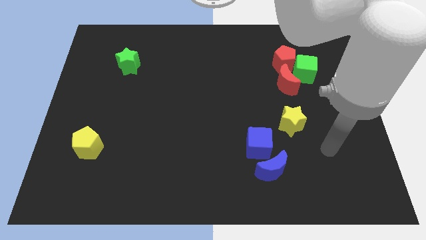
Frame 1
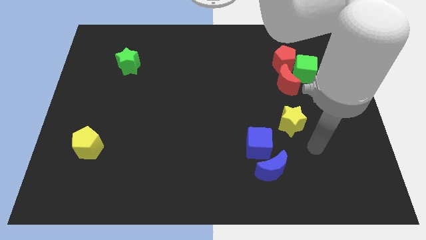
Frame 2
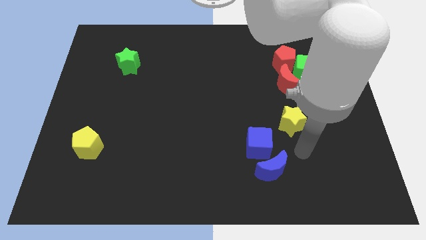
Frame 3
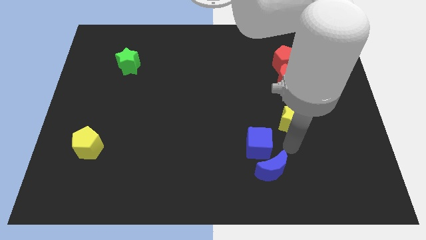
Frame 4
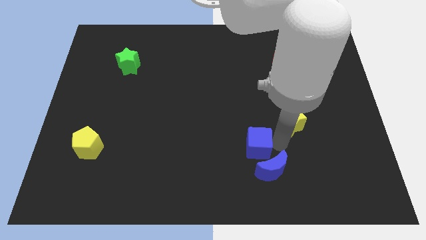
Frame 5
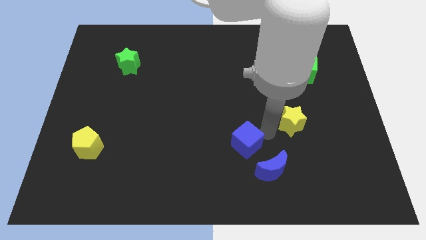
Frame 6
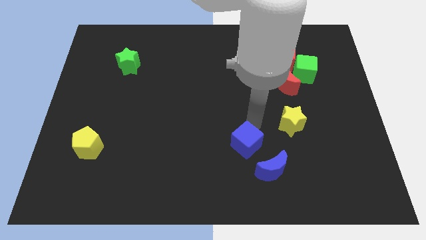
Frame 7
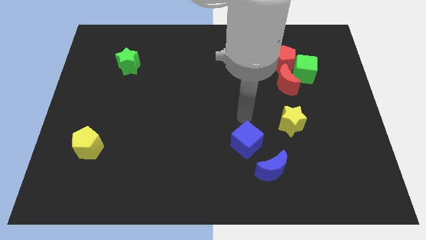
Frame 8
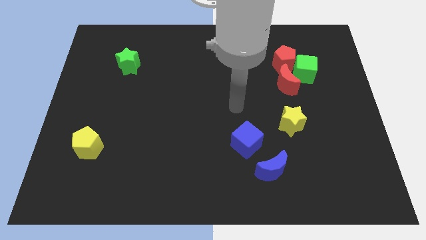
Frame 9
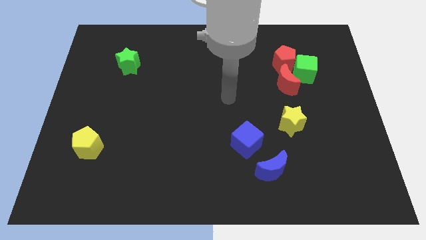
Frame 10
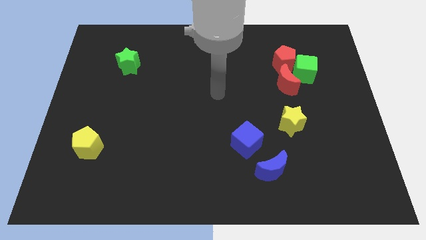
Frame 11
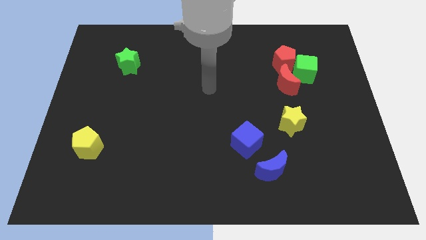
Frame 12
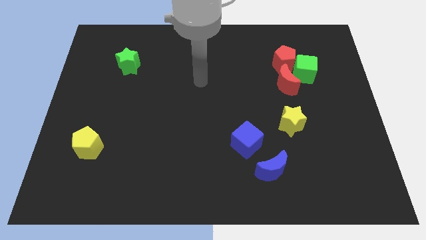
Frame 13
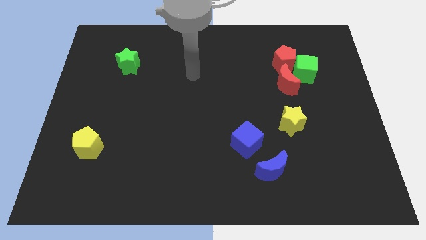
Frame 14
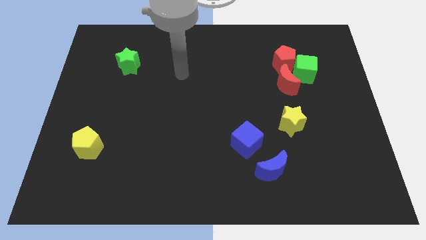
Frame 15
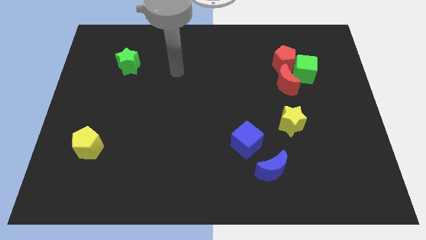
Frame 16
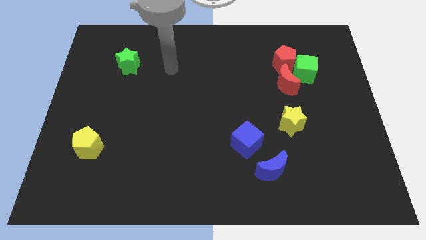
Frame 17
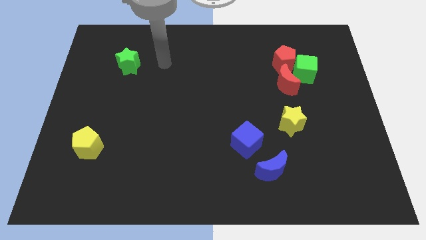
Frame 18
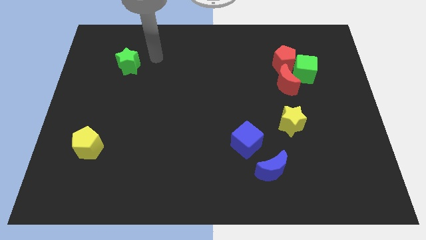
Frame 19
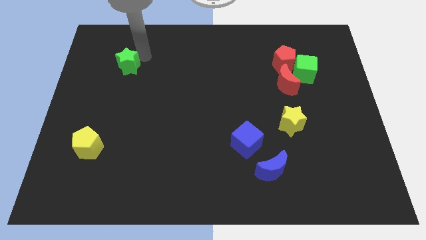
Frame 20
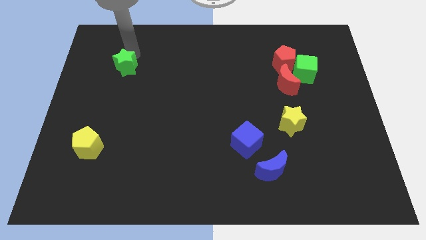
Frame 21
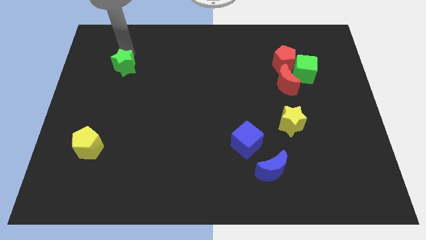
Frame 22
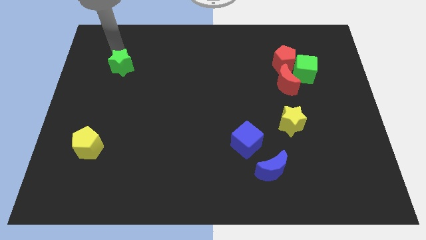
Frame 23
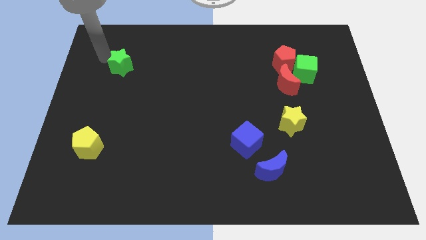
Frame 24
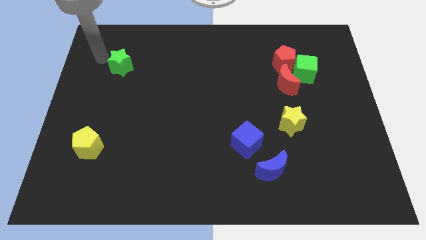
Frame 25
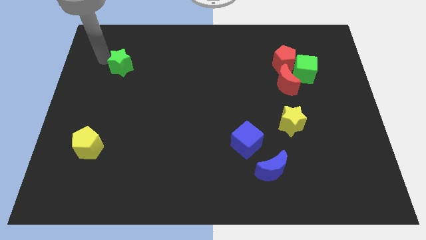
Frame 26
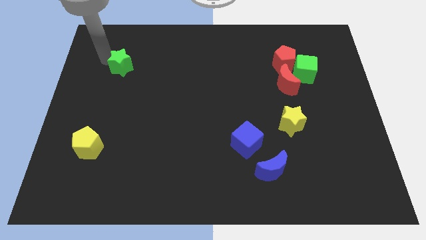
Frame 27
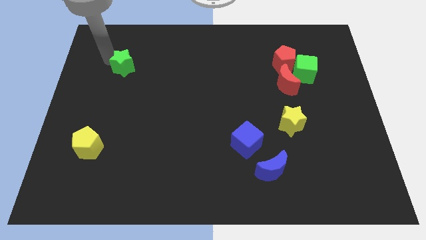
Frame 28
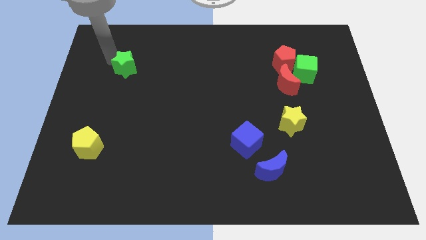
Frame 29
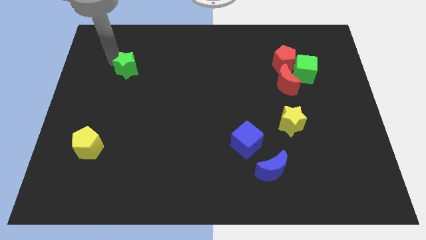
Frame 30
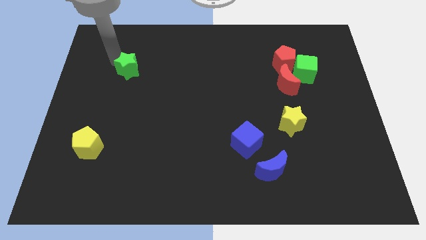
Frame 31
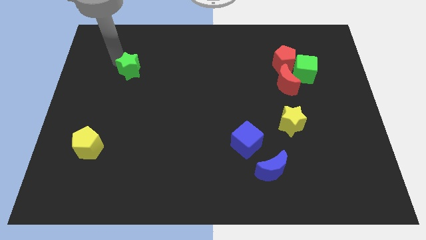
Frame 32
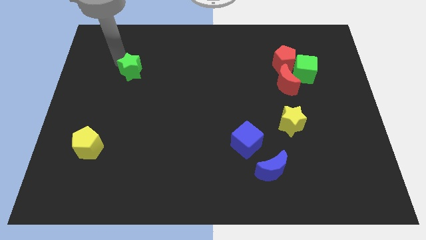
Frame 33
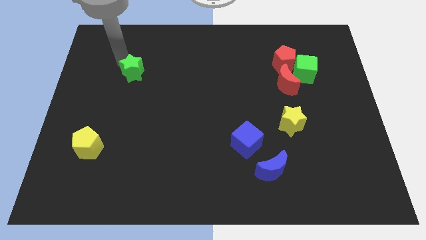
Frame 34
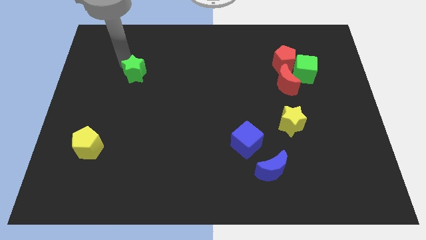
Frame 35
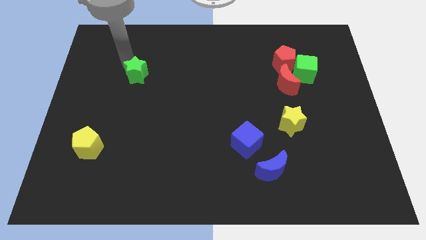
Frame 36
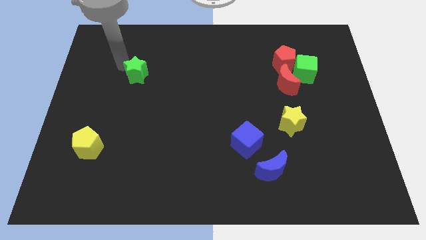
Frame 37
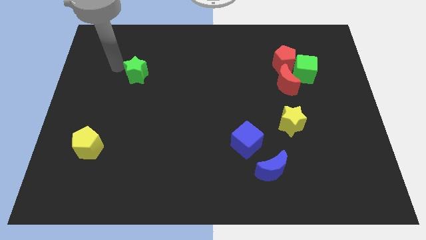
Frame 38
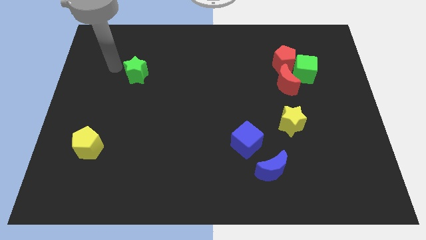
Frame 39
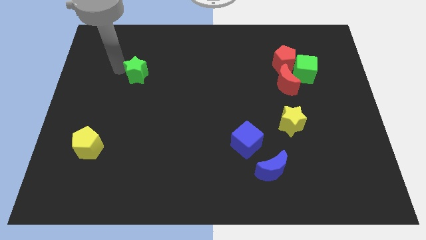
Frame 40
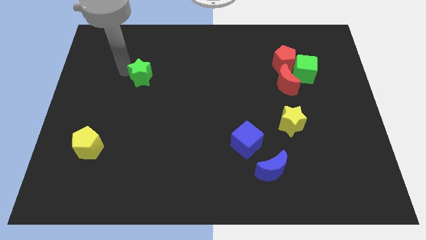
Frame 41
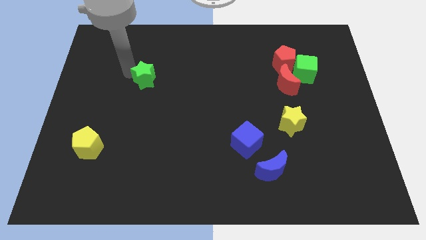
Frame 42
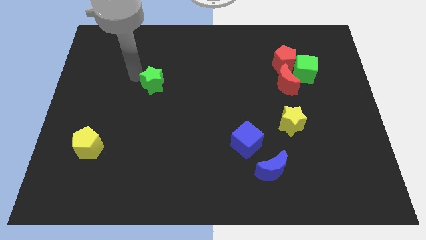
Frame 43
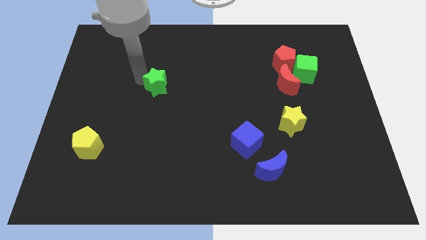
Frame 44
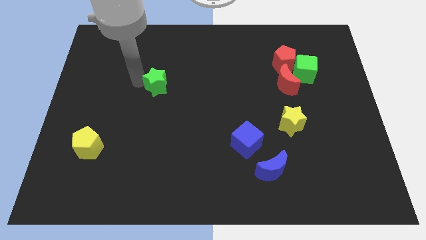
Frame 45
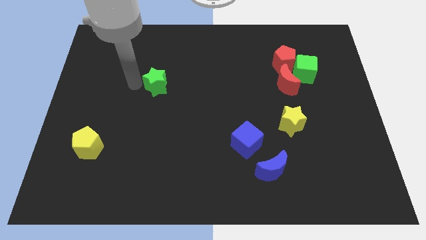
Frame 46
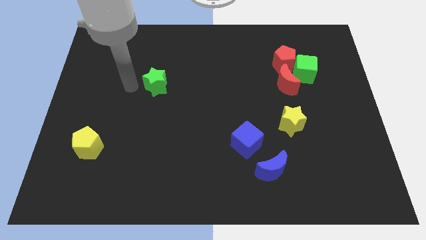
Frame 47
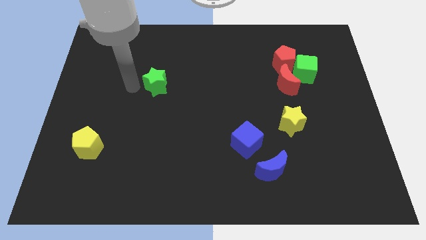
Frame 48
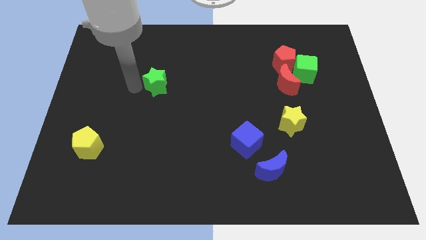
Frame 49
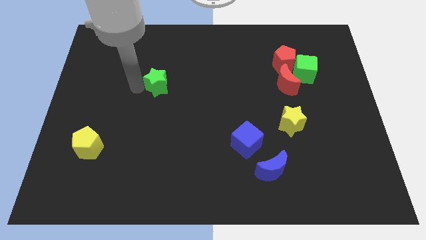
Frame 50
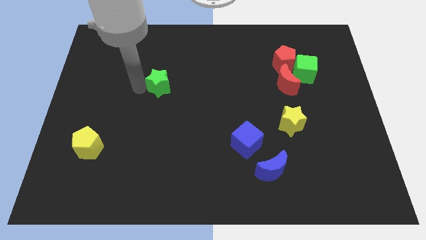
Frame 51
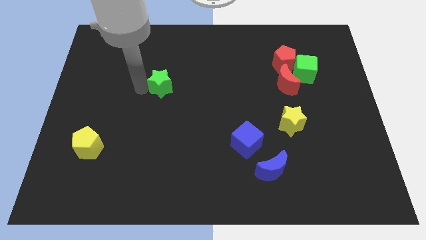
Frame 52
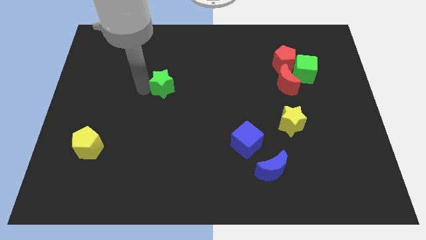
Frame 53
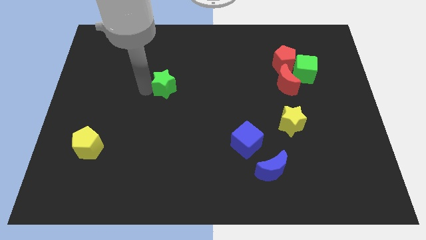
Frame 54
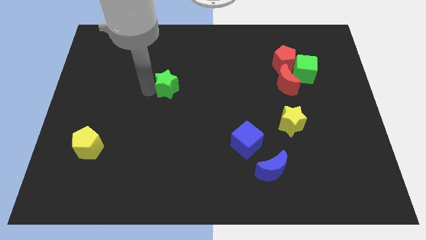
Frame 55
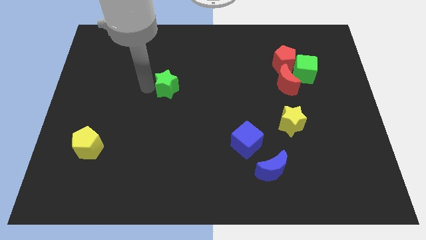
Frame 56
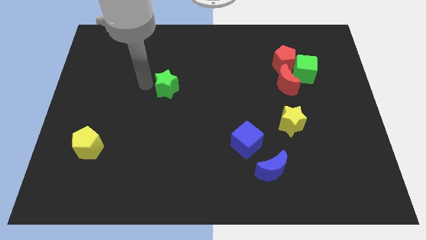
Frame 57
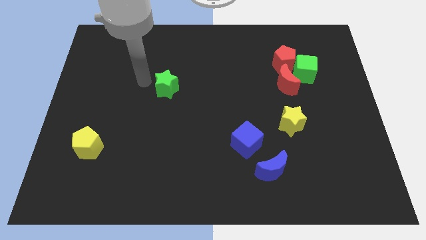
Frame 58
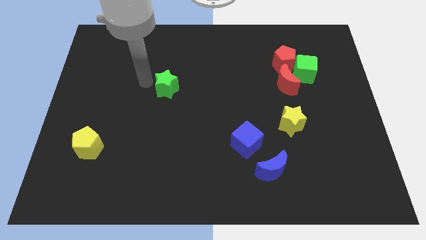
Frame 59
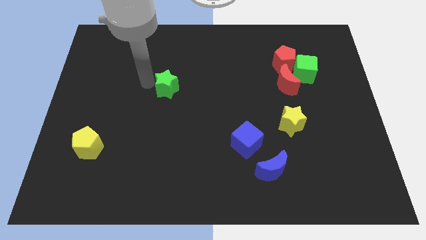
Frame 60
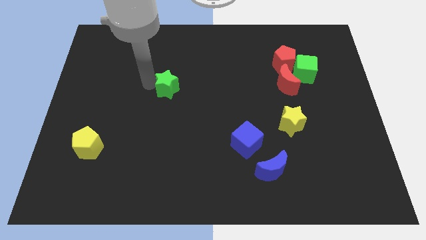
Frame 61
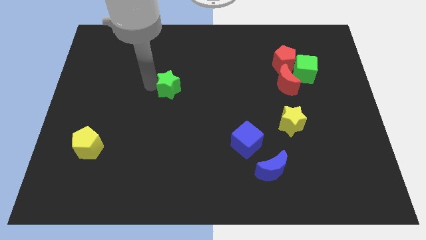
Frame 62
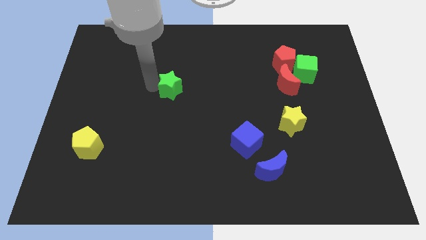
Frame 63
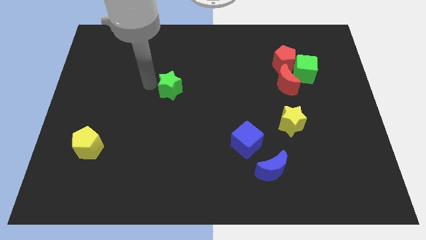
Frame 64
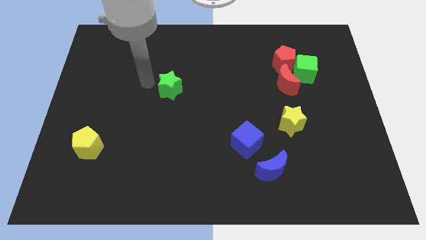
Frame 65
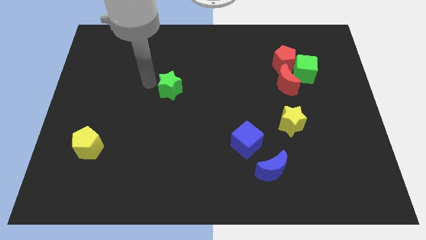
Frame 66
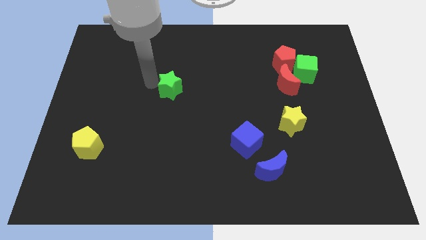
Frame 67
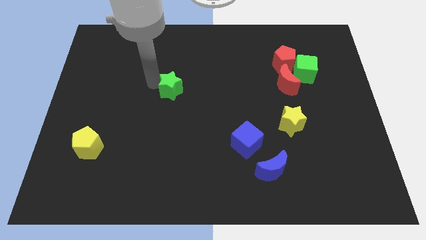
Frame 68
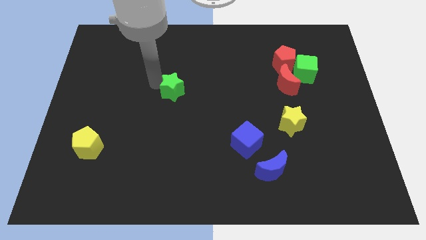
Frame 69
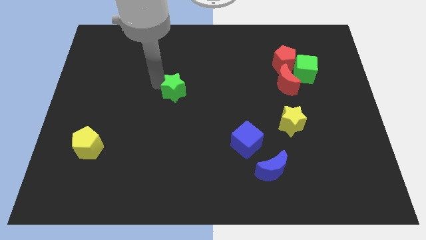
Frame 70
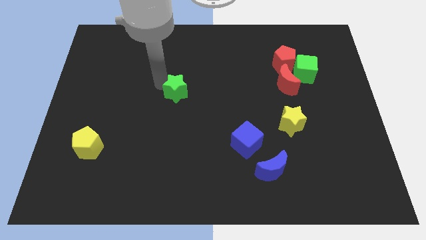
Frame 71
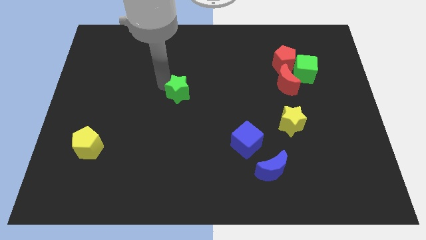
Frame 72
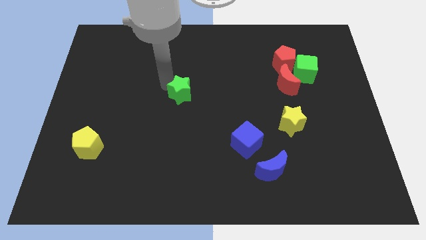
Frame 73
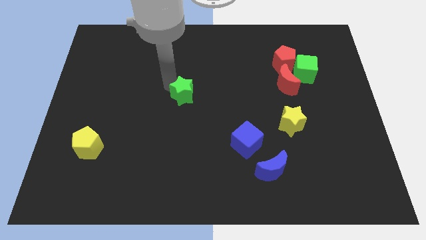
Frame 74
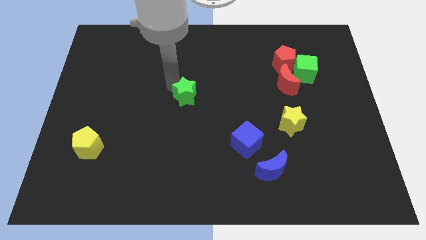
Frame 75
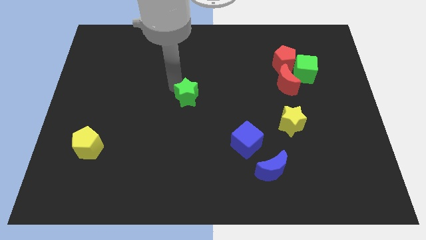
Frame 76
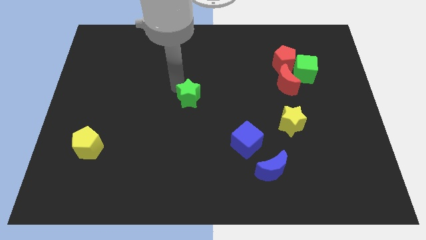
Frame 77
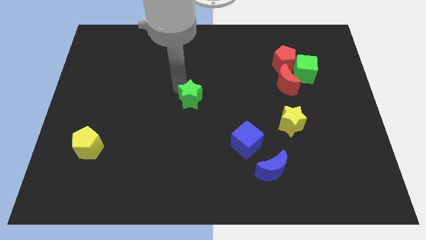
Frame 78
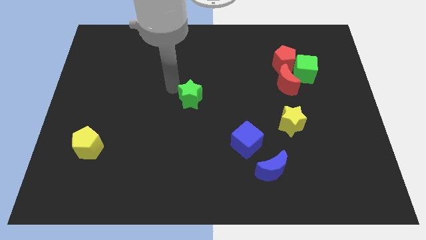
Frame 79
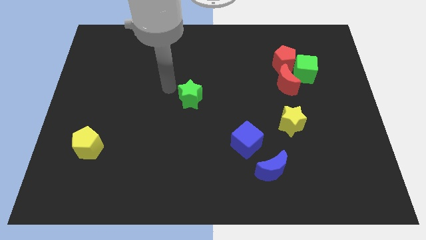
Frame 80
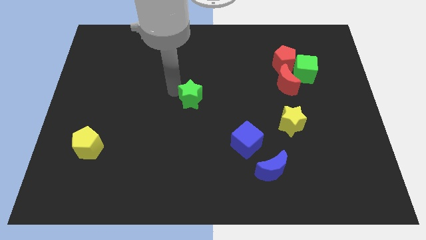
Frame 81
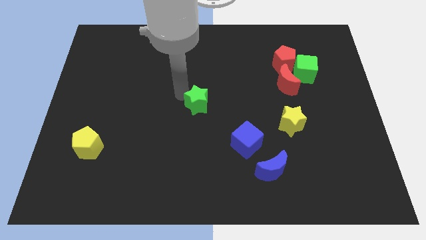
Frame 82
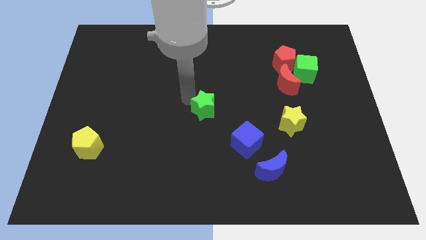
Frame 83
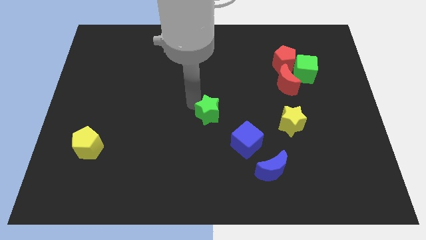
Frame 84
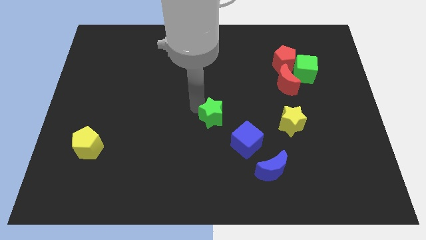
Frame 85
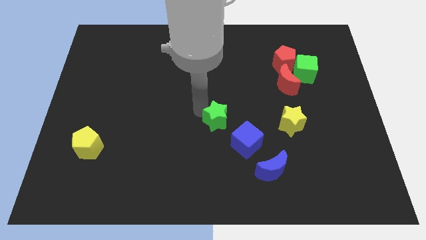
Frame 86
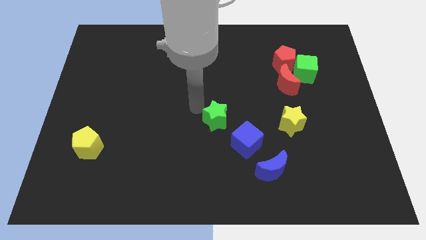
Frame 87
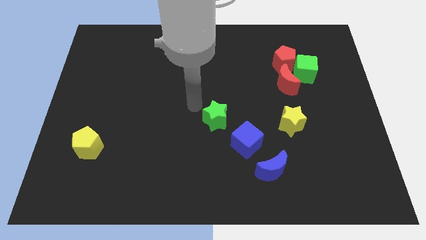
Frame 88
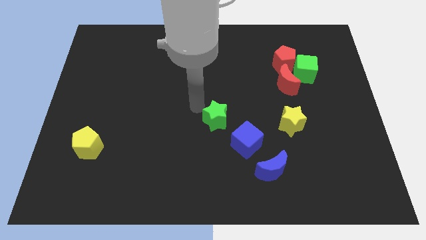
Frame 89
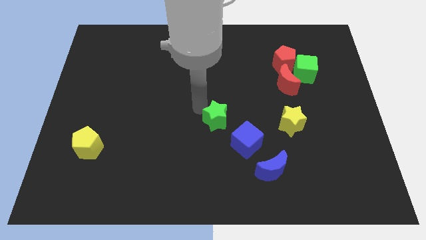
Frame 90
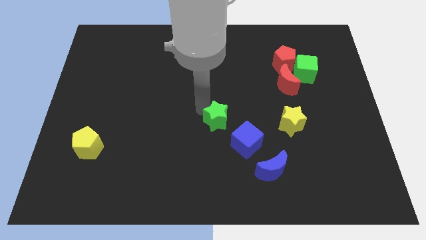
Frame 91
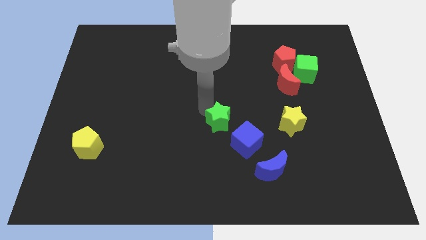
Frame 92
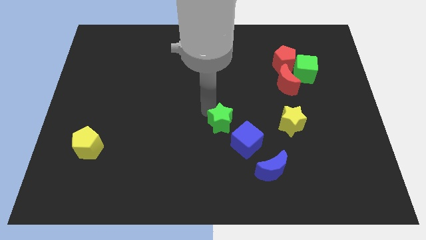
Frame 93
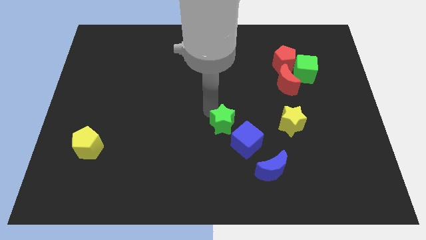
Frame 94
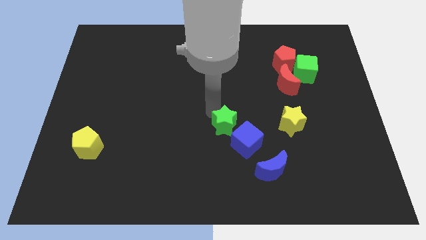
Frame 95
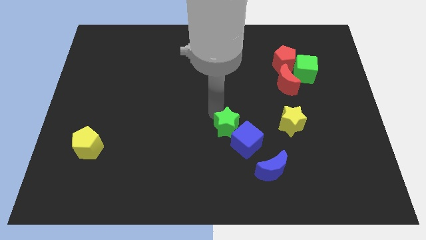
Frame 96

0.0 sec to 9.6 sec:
move the green star close to the blue cube
